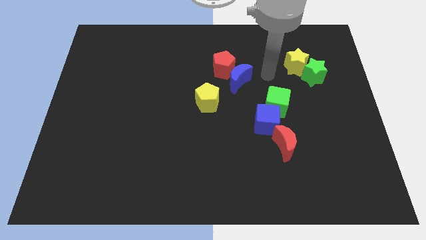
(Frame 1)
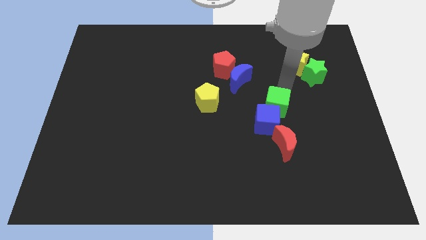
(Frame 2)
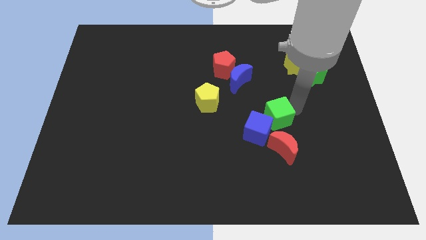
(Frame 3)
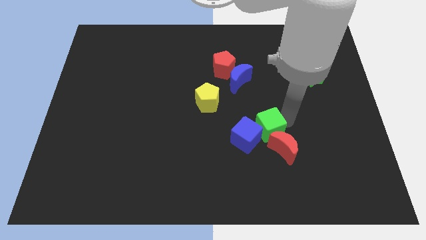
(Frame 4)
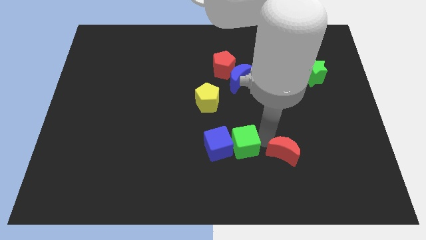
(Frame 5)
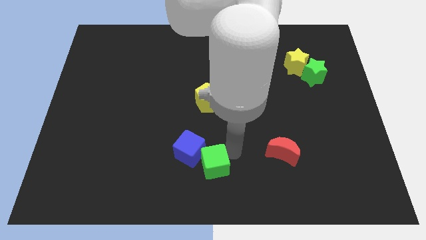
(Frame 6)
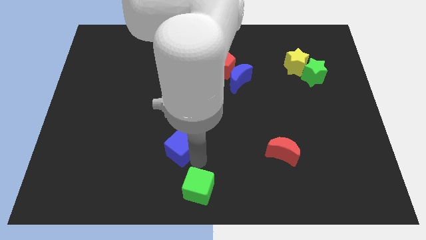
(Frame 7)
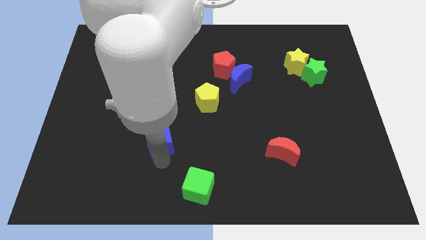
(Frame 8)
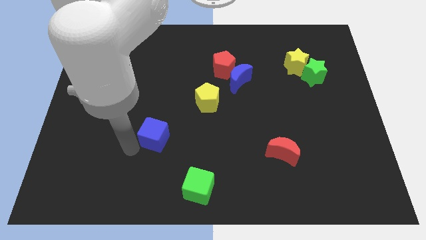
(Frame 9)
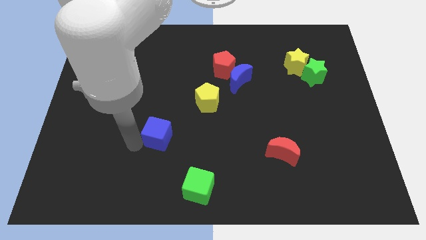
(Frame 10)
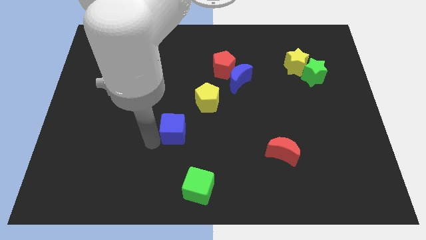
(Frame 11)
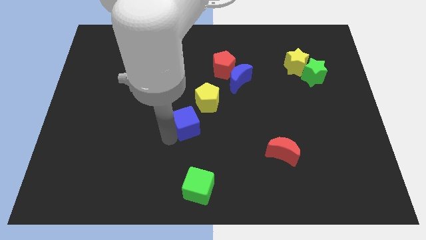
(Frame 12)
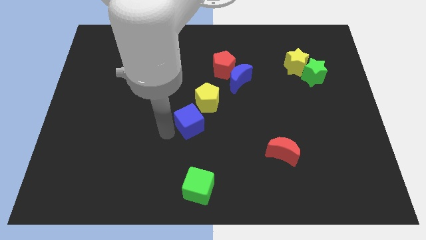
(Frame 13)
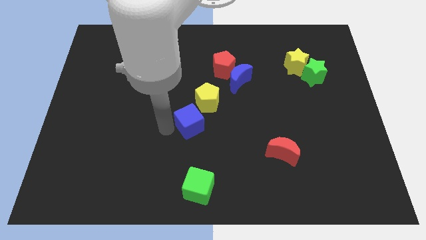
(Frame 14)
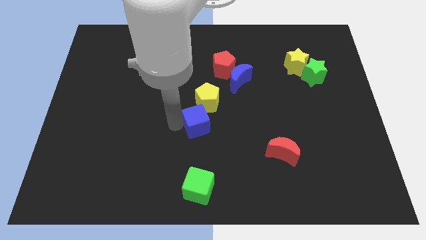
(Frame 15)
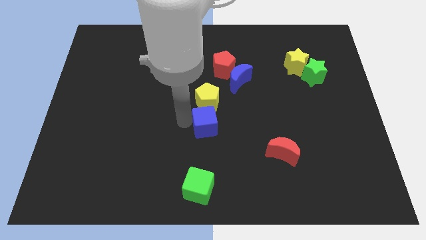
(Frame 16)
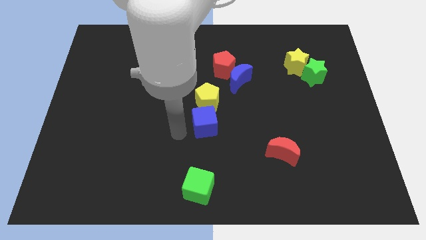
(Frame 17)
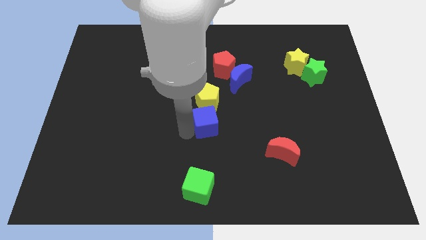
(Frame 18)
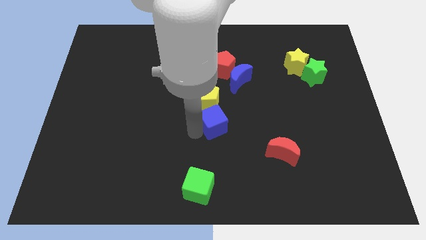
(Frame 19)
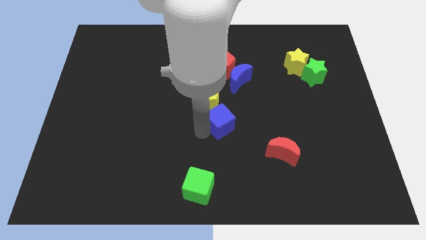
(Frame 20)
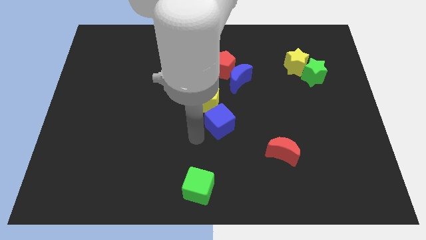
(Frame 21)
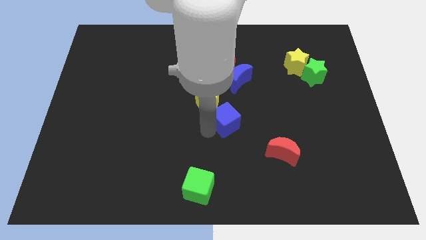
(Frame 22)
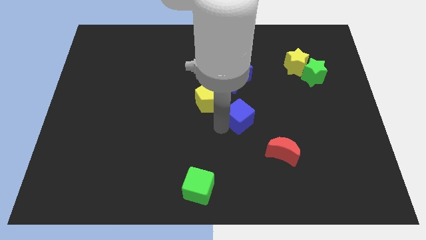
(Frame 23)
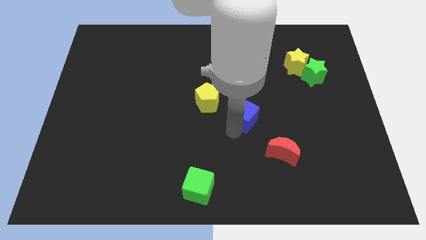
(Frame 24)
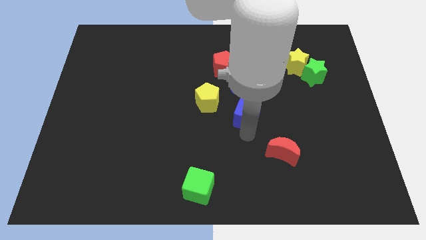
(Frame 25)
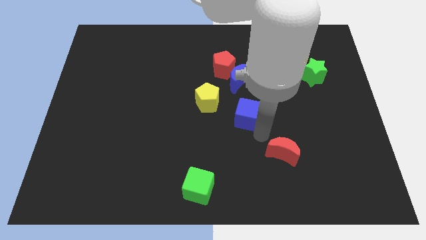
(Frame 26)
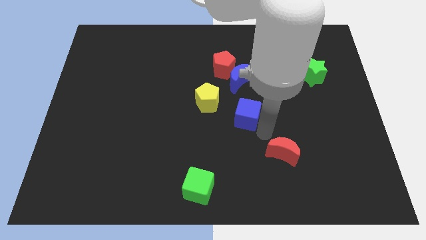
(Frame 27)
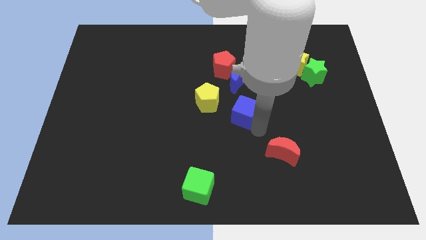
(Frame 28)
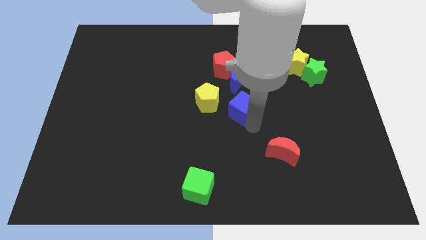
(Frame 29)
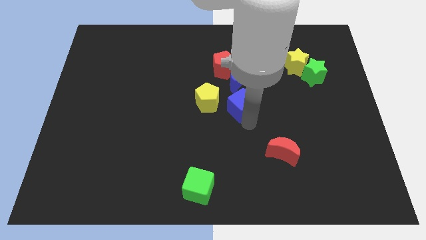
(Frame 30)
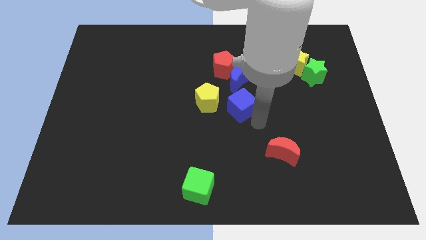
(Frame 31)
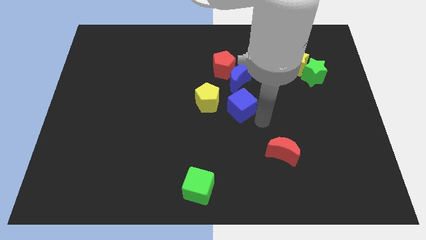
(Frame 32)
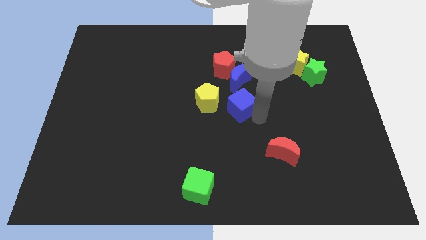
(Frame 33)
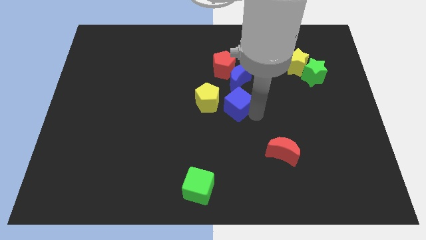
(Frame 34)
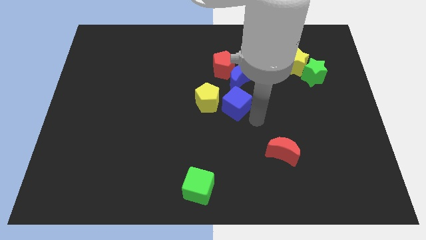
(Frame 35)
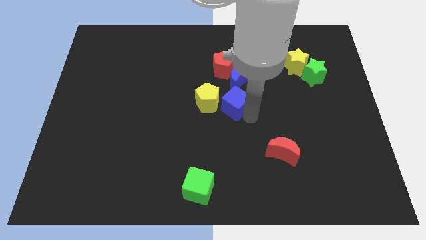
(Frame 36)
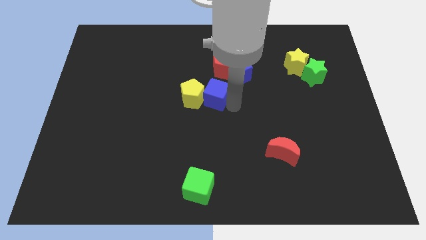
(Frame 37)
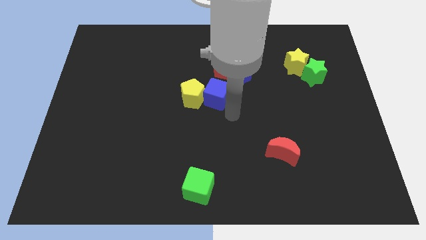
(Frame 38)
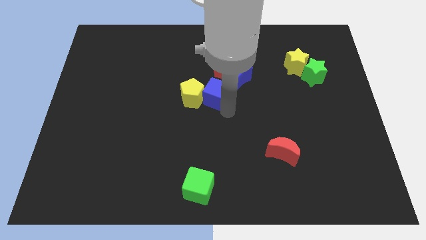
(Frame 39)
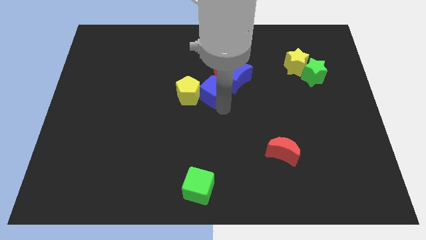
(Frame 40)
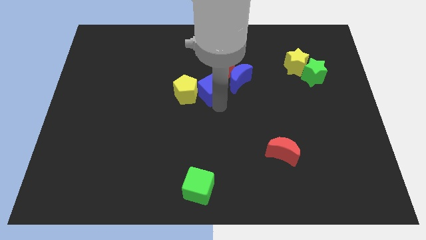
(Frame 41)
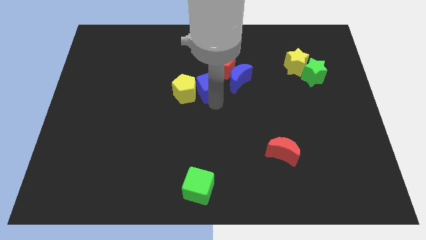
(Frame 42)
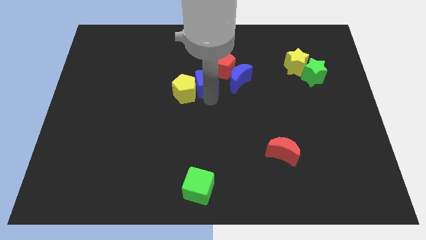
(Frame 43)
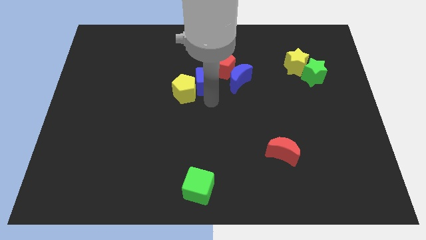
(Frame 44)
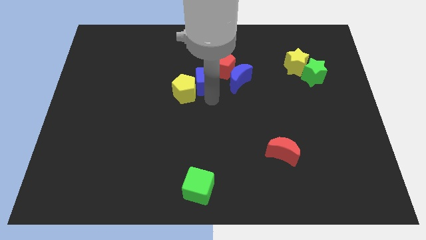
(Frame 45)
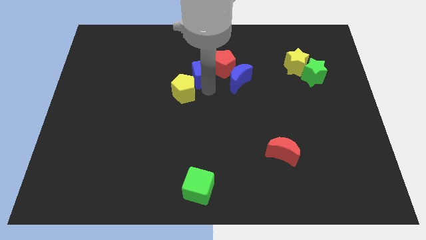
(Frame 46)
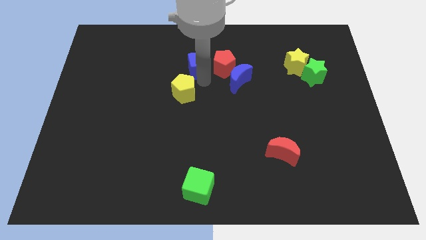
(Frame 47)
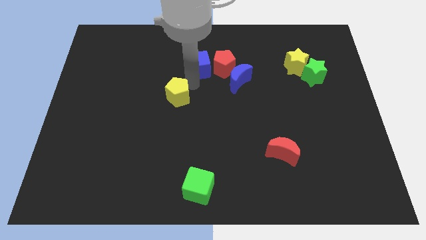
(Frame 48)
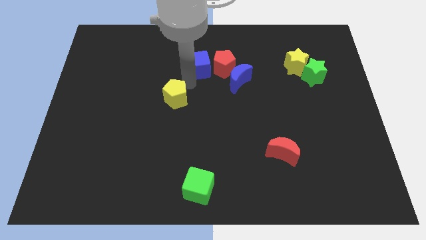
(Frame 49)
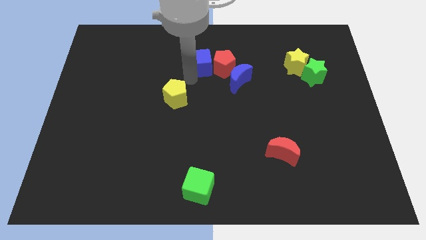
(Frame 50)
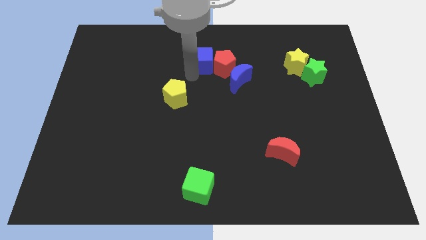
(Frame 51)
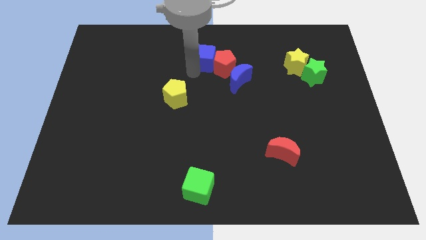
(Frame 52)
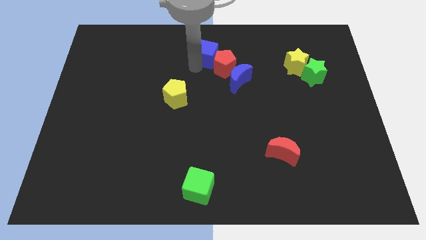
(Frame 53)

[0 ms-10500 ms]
put the blue cube to the top side
